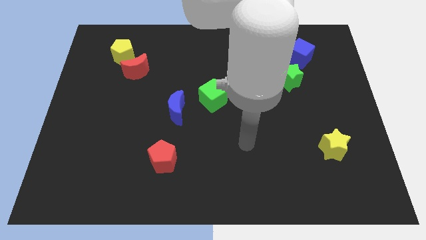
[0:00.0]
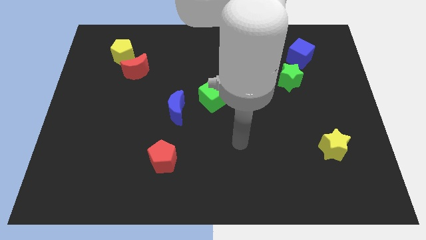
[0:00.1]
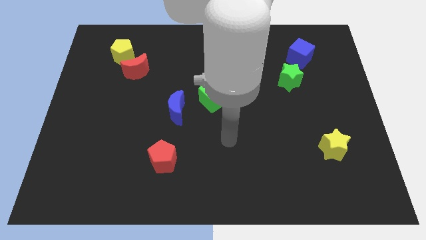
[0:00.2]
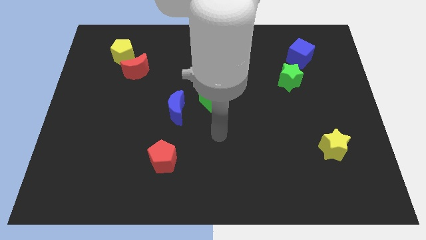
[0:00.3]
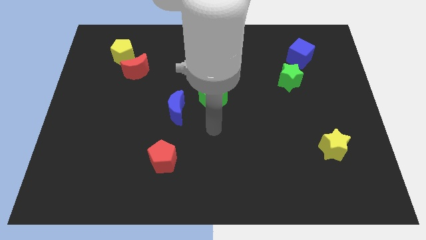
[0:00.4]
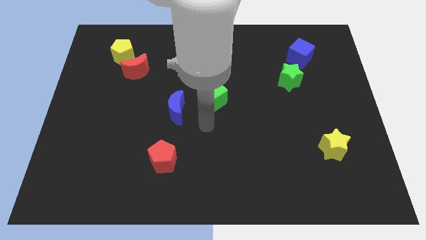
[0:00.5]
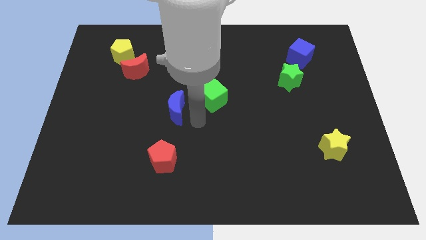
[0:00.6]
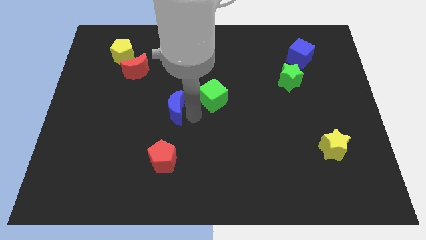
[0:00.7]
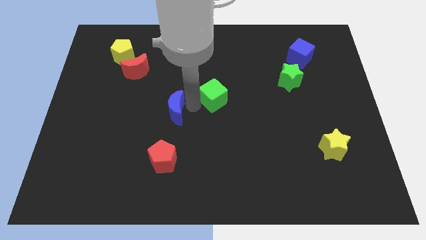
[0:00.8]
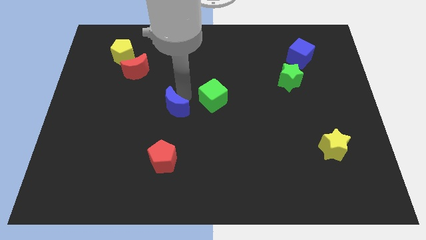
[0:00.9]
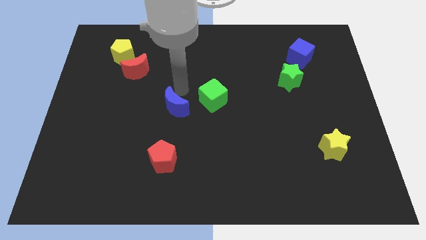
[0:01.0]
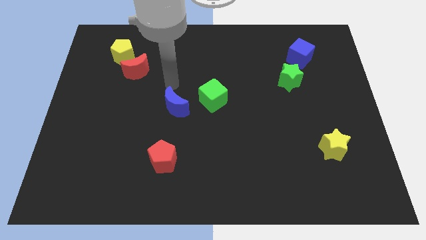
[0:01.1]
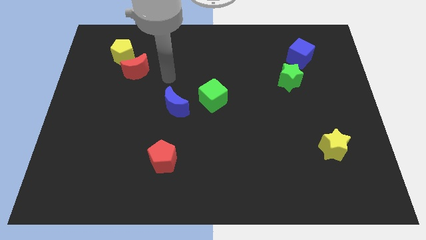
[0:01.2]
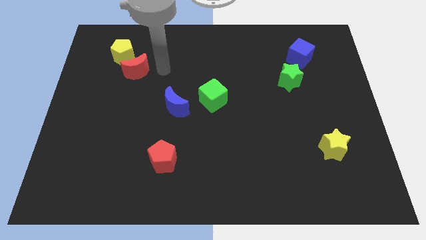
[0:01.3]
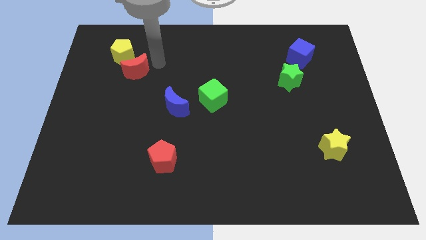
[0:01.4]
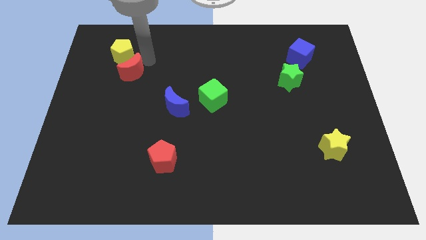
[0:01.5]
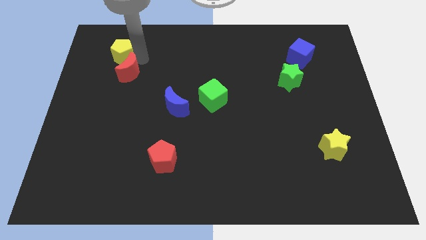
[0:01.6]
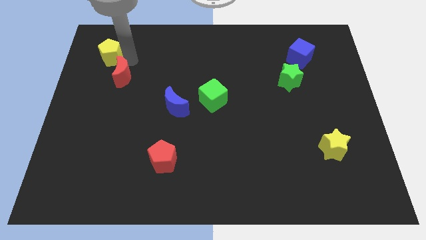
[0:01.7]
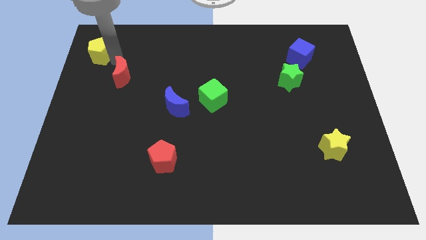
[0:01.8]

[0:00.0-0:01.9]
pull the red moon apart from the yellow pentagon

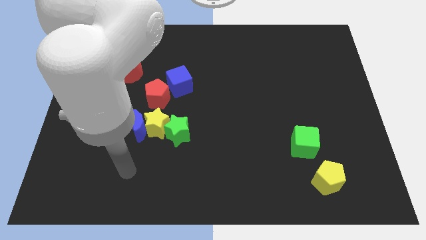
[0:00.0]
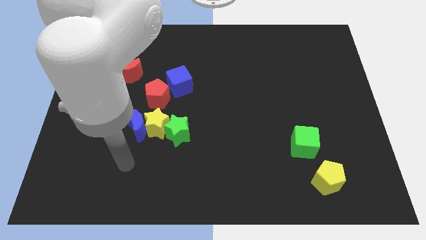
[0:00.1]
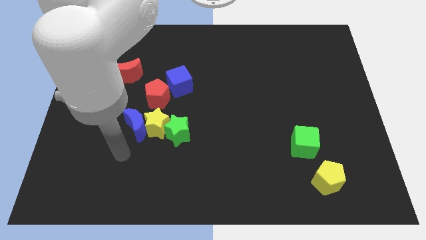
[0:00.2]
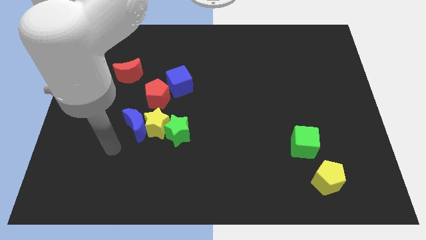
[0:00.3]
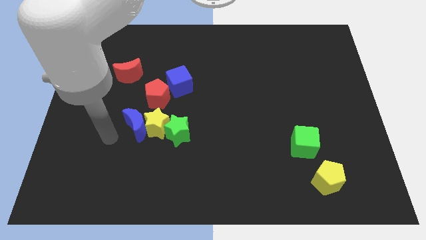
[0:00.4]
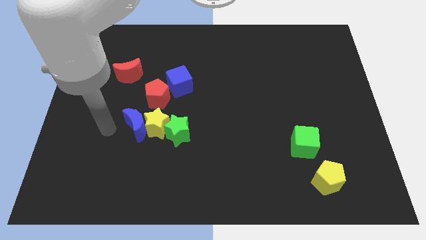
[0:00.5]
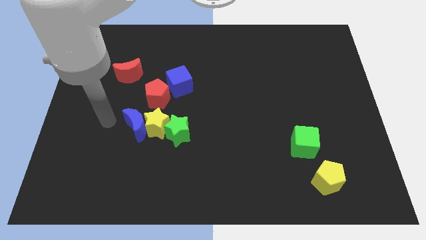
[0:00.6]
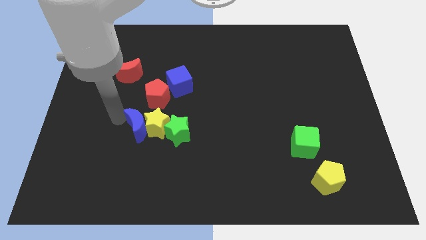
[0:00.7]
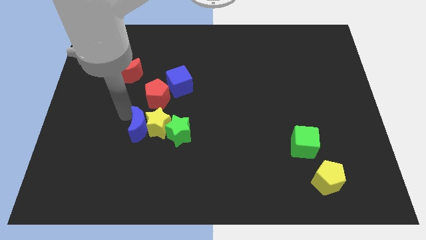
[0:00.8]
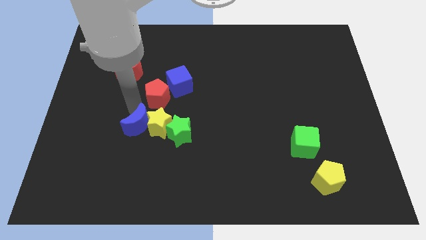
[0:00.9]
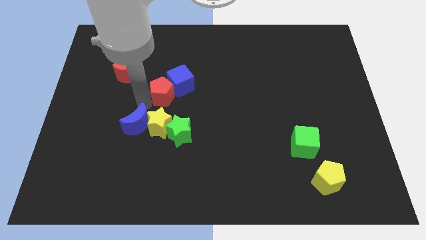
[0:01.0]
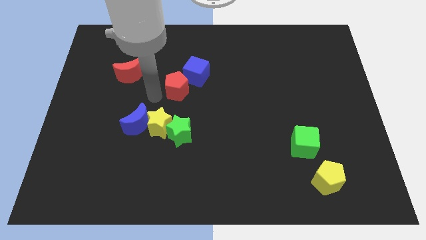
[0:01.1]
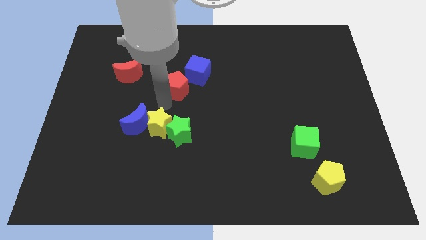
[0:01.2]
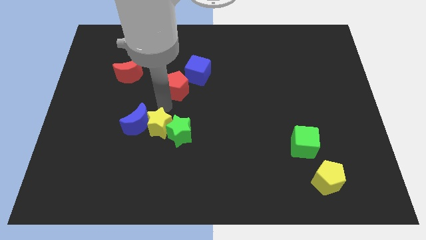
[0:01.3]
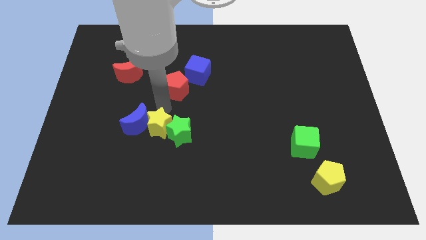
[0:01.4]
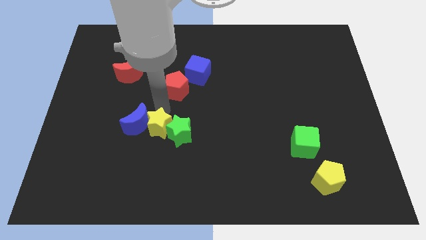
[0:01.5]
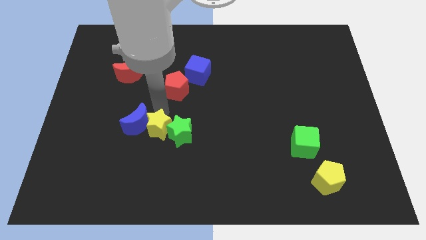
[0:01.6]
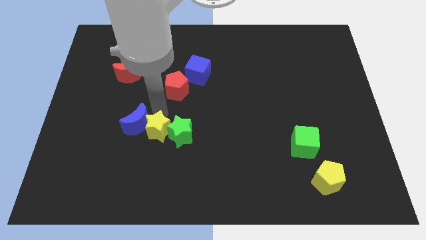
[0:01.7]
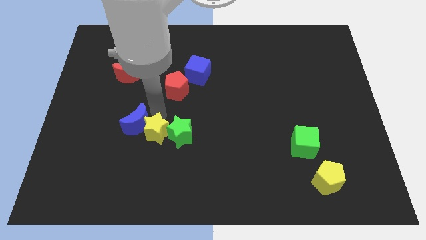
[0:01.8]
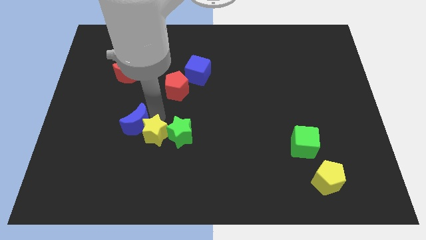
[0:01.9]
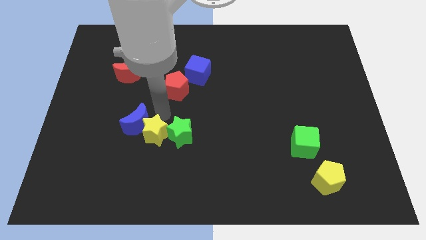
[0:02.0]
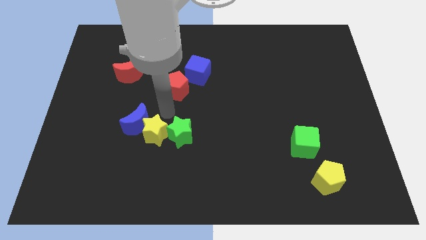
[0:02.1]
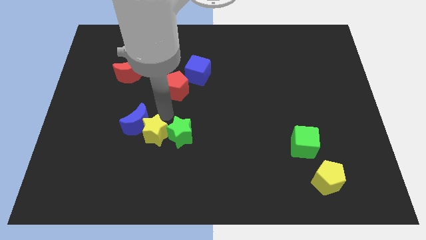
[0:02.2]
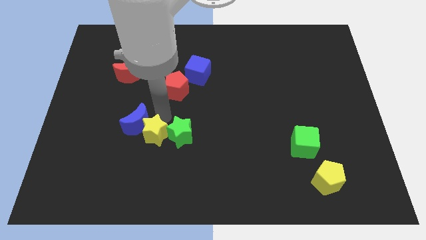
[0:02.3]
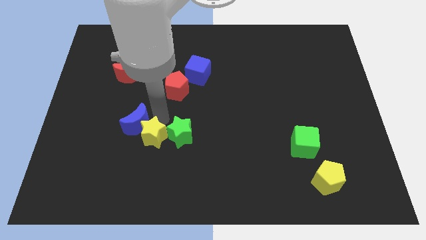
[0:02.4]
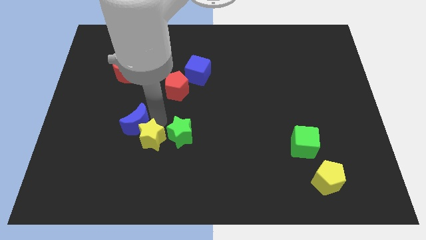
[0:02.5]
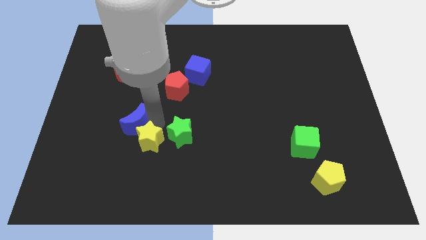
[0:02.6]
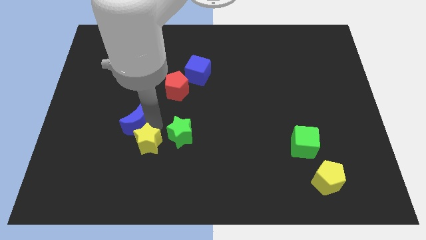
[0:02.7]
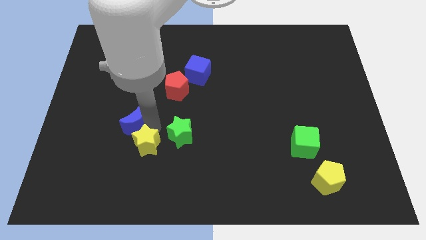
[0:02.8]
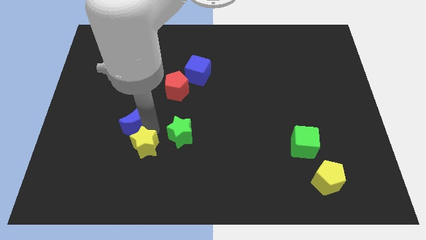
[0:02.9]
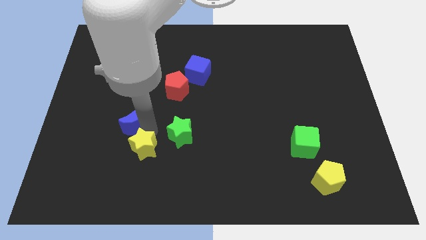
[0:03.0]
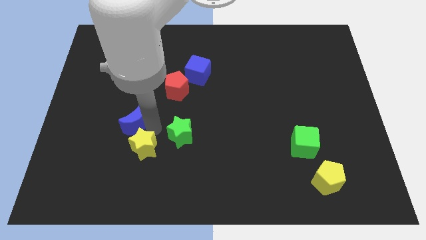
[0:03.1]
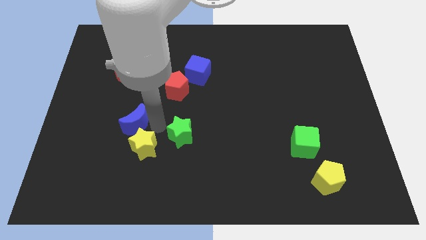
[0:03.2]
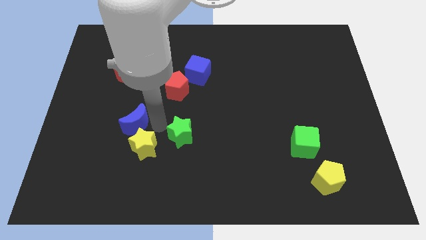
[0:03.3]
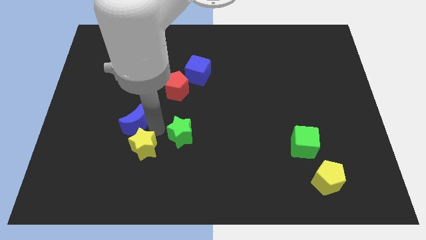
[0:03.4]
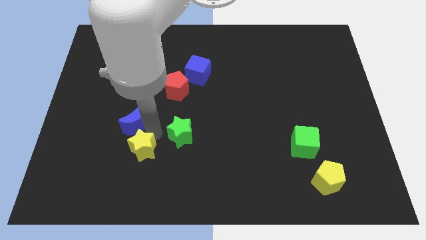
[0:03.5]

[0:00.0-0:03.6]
separate the yellow star from the group of blocks

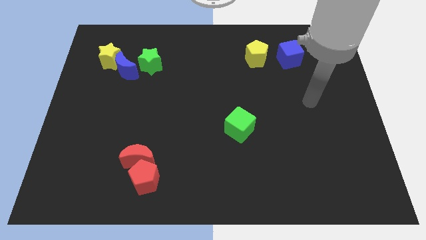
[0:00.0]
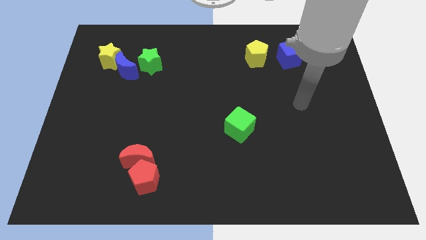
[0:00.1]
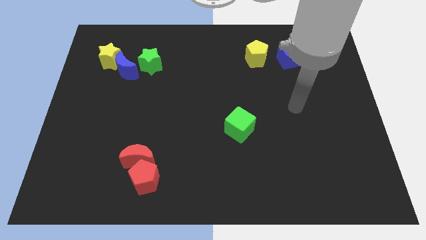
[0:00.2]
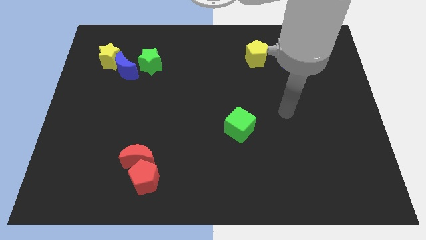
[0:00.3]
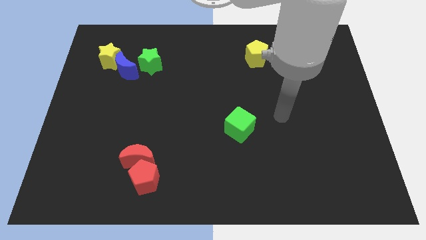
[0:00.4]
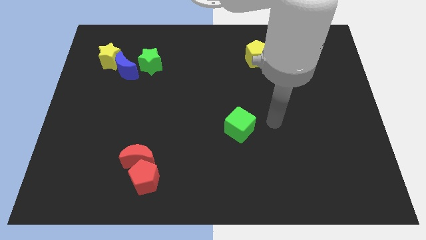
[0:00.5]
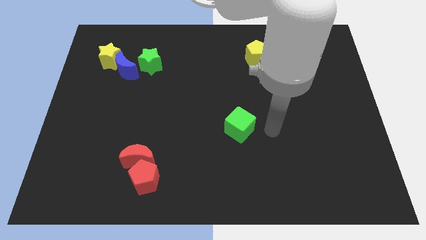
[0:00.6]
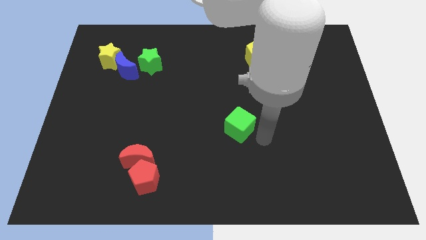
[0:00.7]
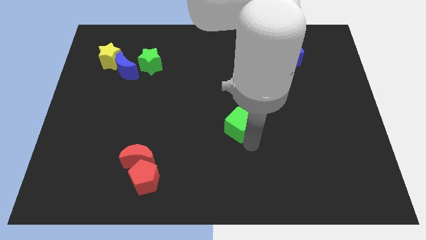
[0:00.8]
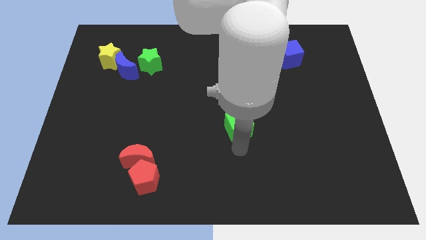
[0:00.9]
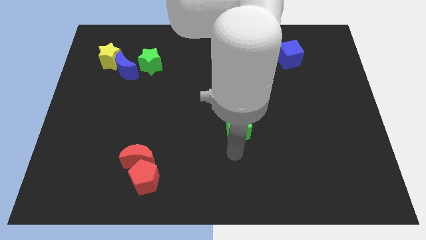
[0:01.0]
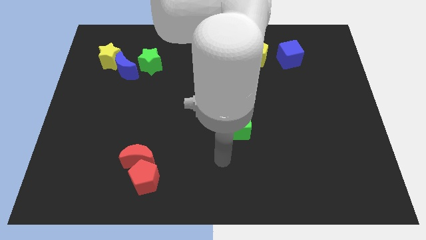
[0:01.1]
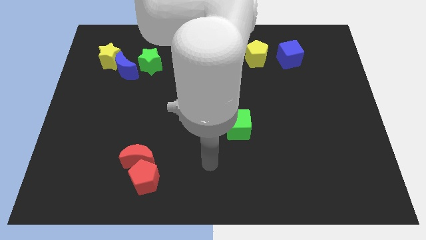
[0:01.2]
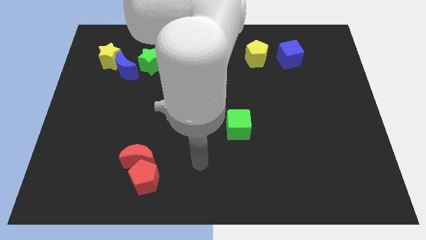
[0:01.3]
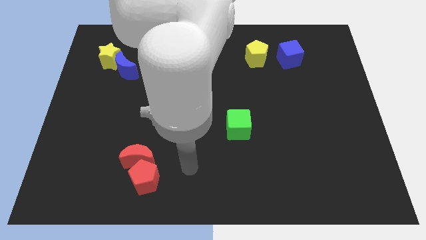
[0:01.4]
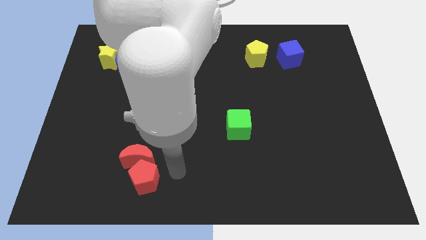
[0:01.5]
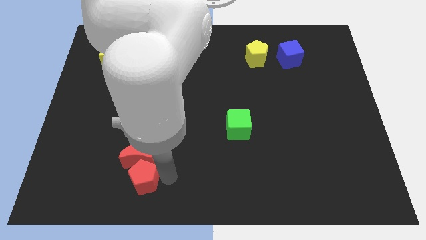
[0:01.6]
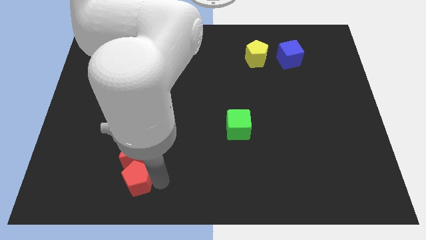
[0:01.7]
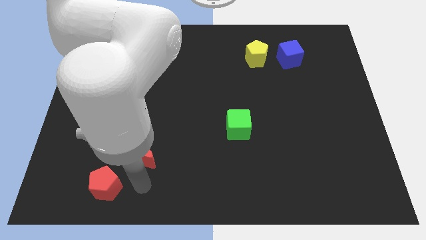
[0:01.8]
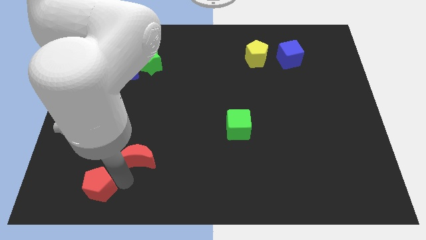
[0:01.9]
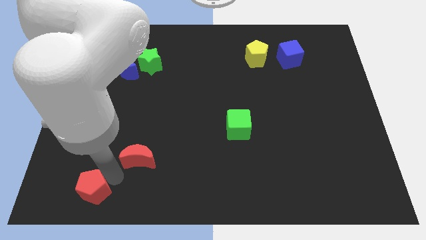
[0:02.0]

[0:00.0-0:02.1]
separate the red moon from the red pentagon

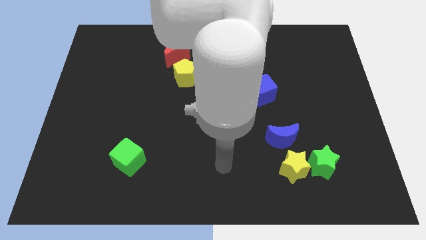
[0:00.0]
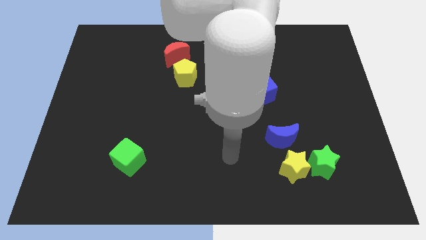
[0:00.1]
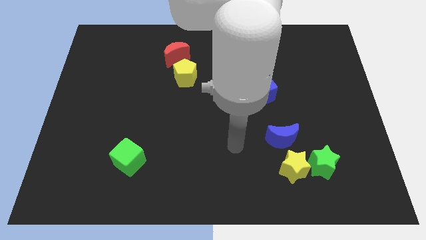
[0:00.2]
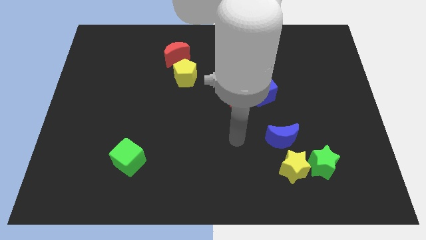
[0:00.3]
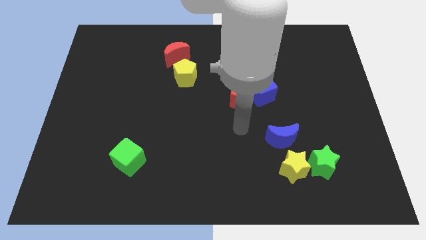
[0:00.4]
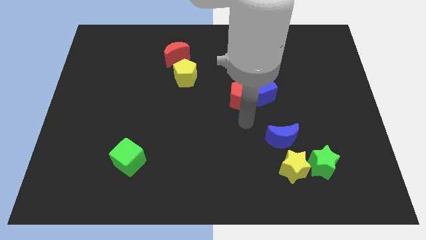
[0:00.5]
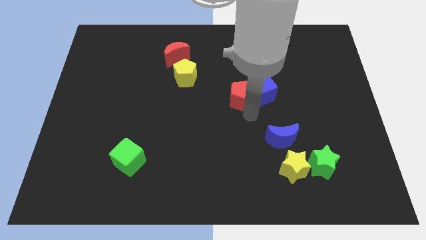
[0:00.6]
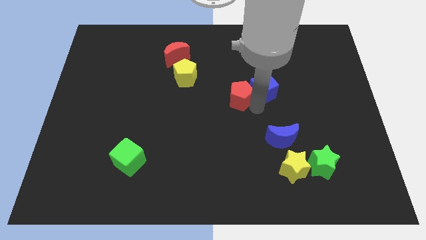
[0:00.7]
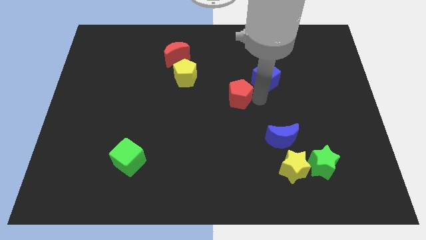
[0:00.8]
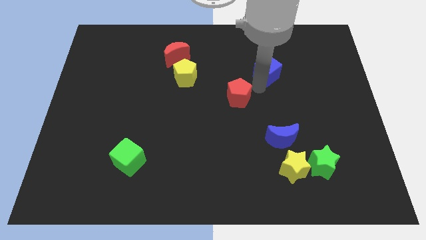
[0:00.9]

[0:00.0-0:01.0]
pull the red pentagon apart from the blue cube

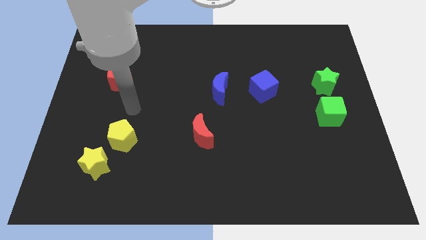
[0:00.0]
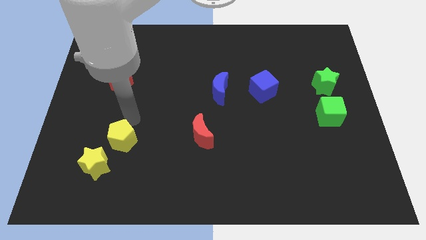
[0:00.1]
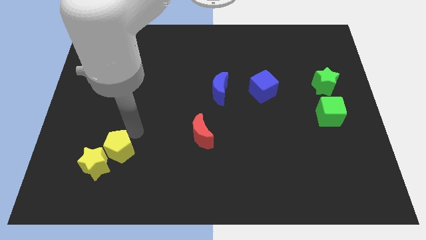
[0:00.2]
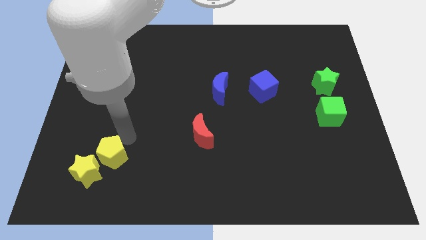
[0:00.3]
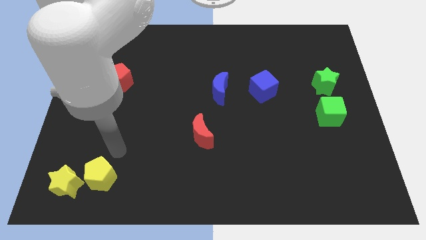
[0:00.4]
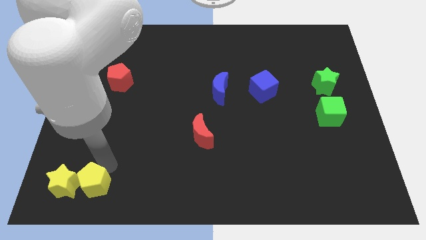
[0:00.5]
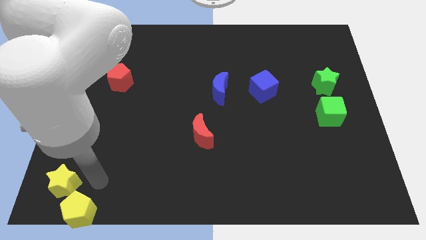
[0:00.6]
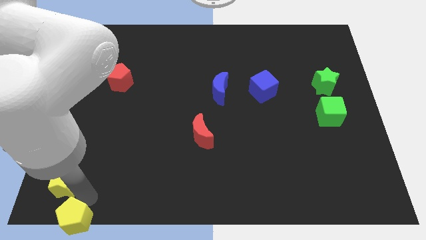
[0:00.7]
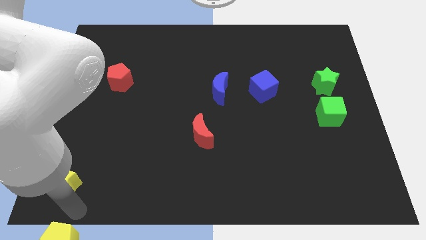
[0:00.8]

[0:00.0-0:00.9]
separate the yellow star from the yellow pentagon
